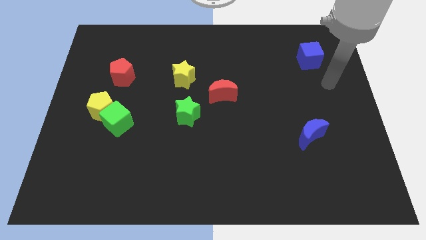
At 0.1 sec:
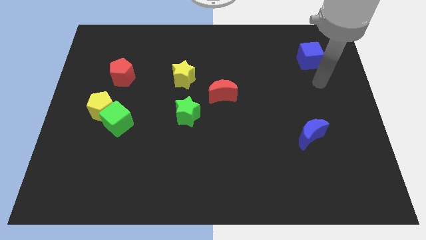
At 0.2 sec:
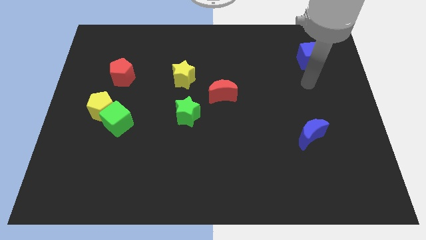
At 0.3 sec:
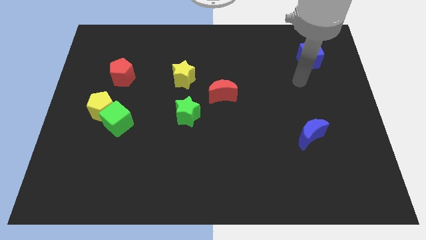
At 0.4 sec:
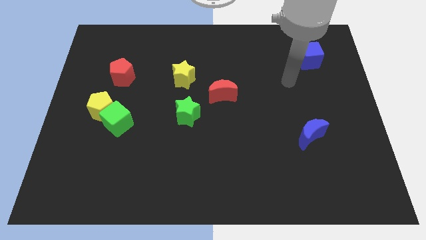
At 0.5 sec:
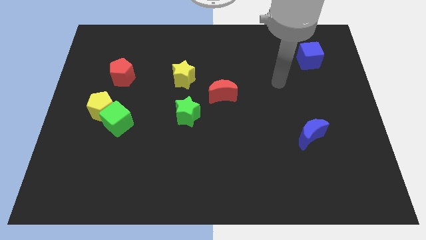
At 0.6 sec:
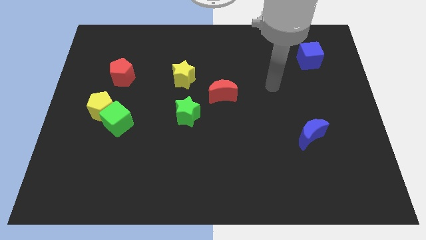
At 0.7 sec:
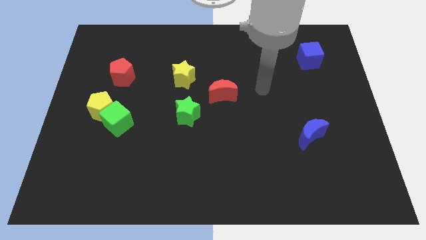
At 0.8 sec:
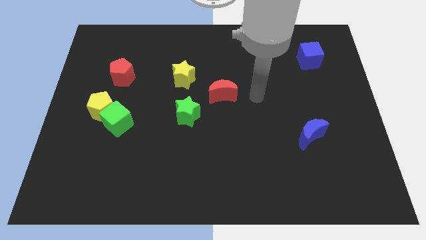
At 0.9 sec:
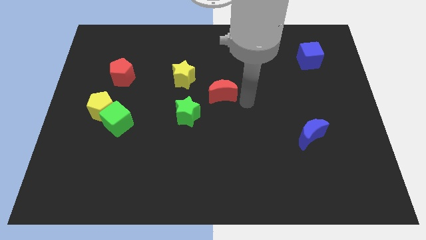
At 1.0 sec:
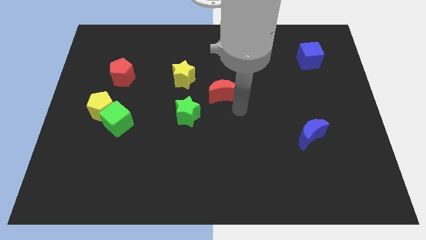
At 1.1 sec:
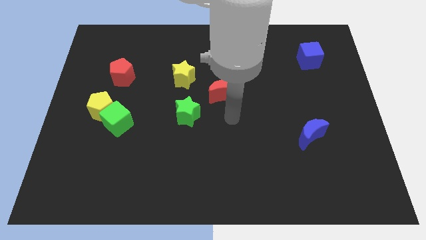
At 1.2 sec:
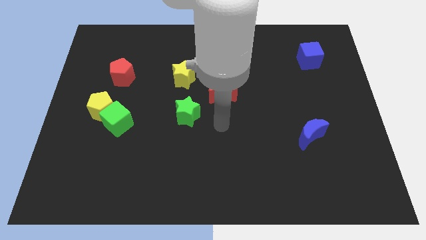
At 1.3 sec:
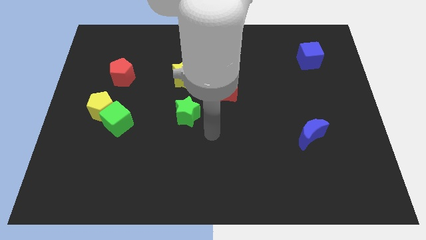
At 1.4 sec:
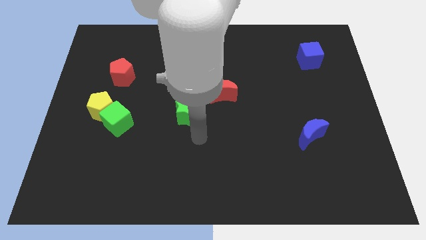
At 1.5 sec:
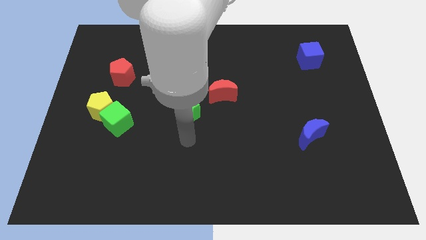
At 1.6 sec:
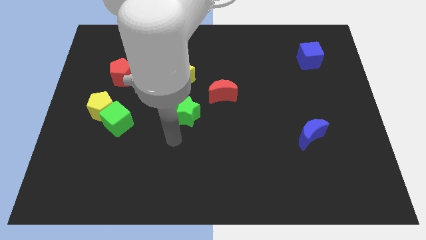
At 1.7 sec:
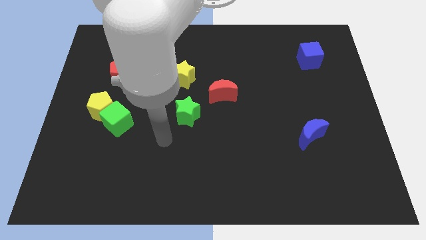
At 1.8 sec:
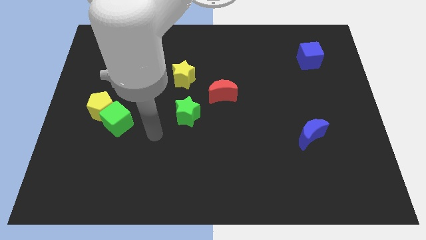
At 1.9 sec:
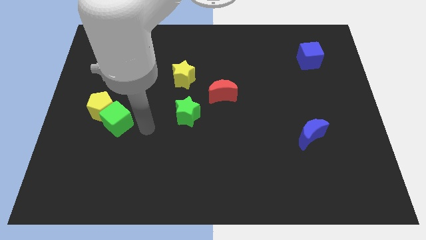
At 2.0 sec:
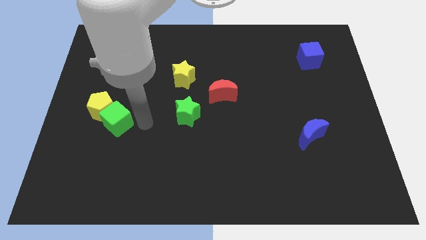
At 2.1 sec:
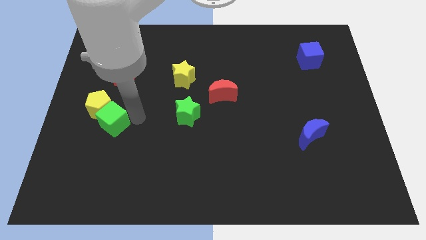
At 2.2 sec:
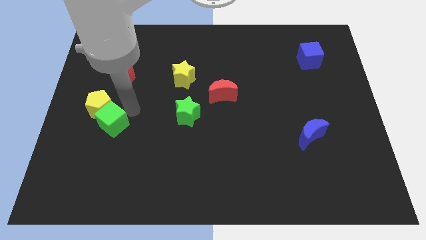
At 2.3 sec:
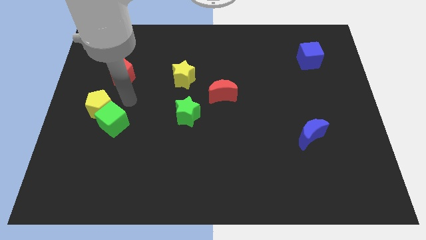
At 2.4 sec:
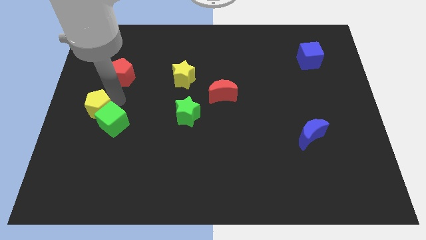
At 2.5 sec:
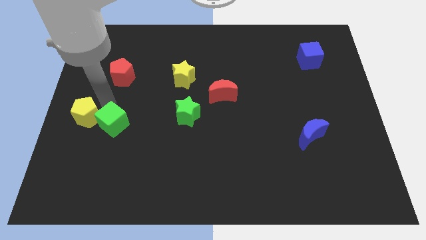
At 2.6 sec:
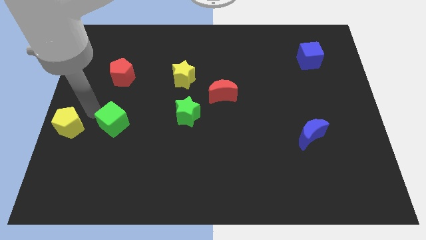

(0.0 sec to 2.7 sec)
pull the green cube apart from the yellow pentagon

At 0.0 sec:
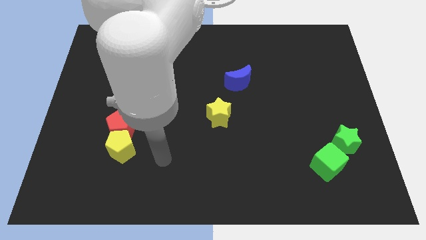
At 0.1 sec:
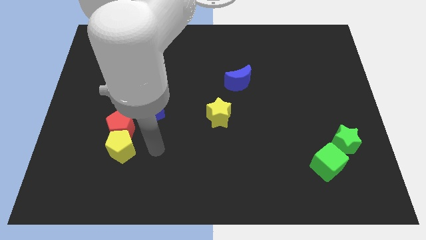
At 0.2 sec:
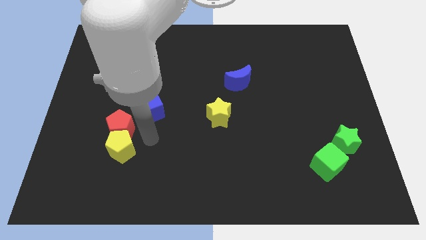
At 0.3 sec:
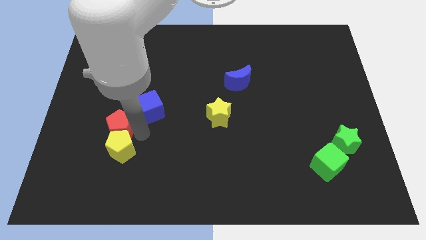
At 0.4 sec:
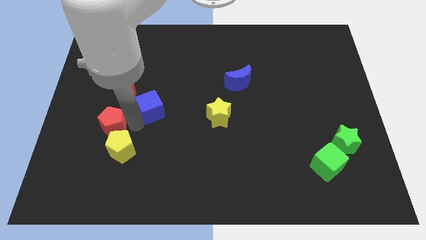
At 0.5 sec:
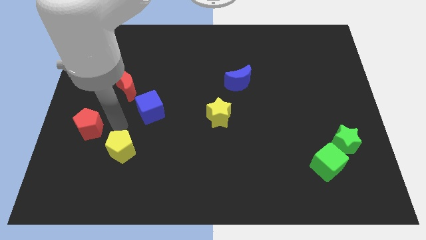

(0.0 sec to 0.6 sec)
separate the yellow pentagon from the red pentagon

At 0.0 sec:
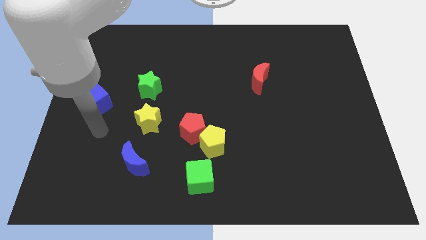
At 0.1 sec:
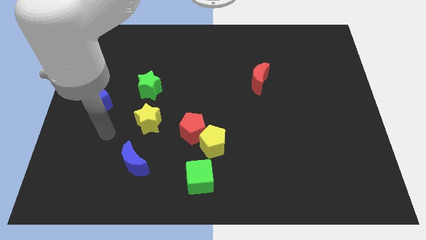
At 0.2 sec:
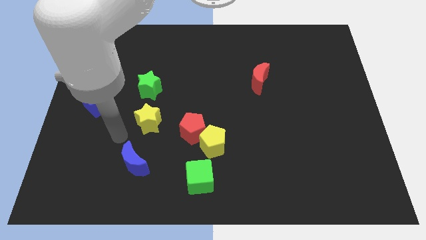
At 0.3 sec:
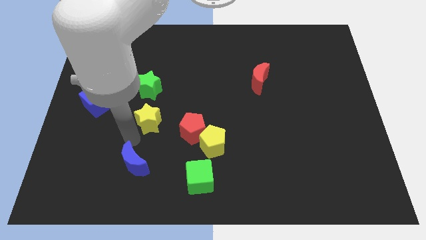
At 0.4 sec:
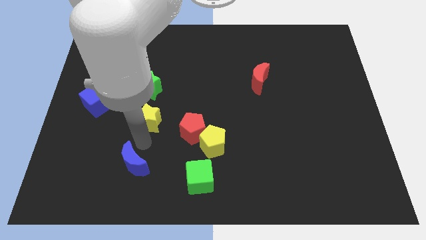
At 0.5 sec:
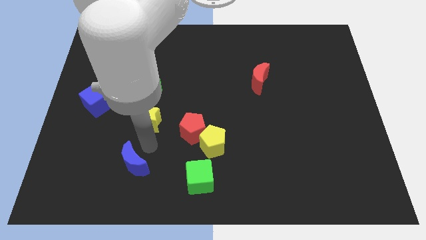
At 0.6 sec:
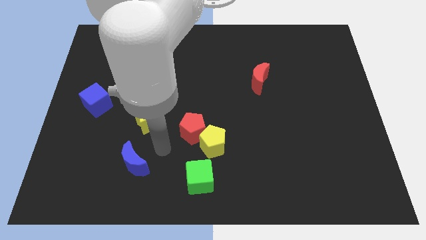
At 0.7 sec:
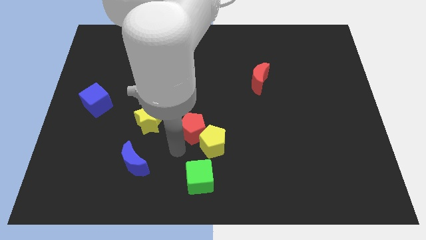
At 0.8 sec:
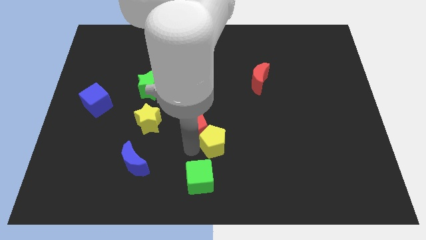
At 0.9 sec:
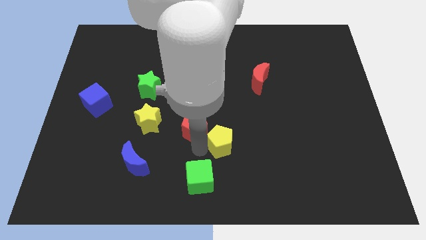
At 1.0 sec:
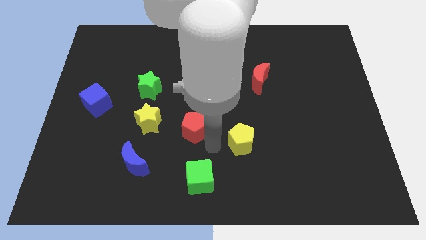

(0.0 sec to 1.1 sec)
separate the red pentagon from the yellow pentagon

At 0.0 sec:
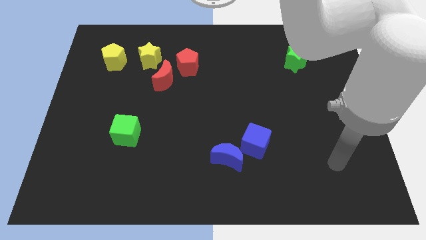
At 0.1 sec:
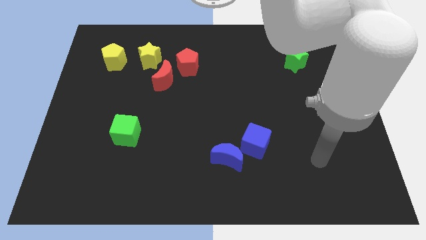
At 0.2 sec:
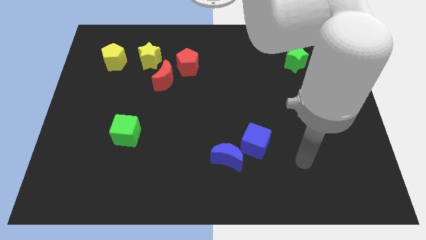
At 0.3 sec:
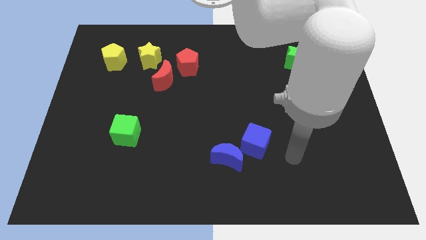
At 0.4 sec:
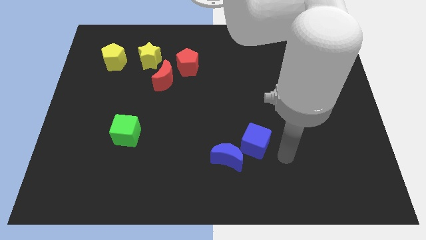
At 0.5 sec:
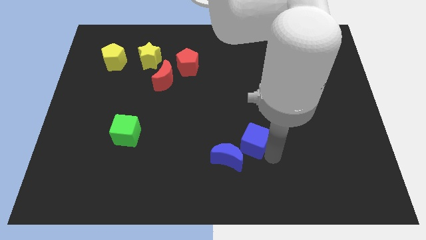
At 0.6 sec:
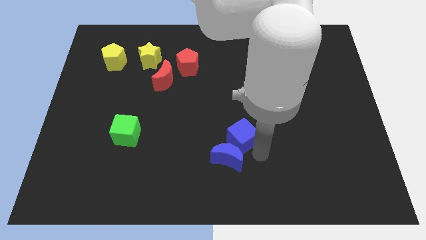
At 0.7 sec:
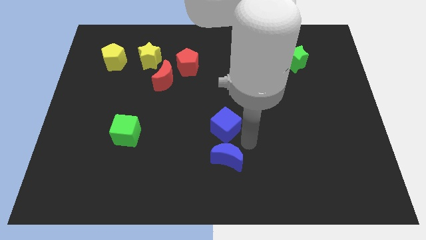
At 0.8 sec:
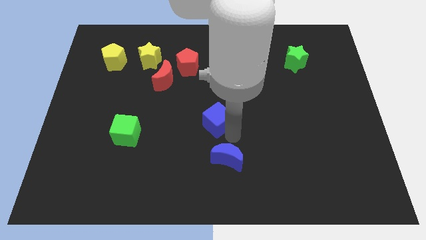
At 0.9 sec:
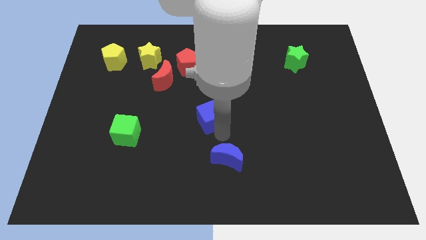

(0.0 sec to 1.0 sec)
separate the blue moon from the blue cube

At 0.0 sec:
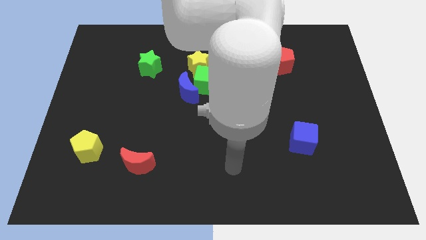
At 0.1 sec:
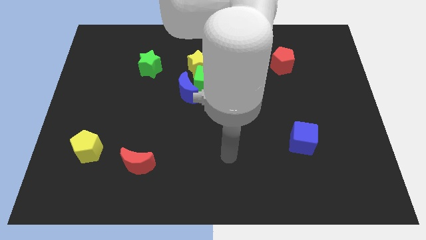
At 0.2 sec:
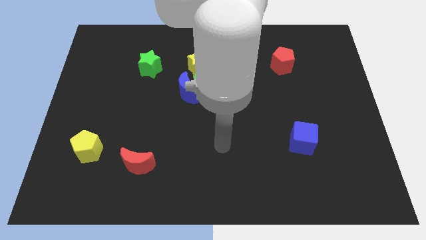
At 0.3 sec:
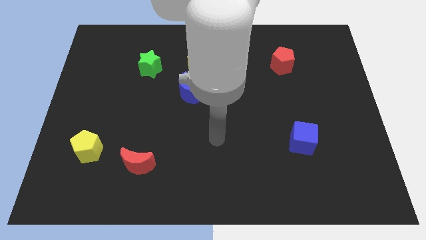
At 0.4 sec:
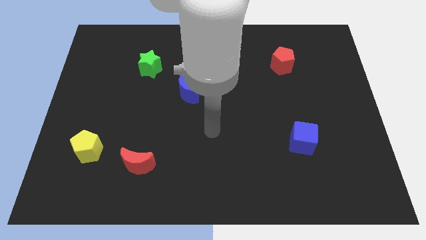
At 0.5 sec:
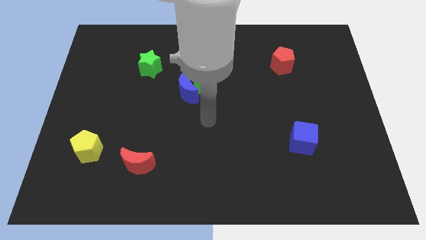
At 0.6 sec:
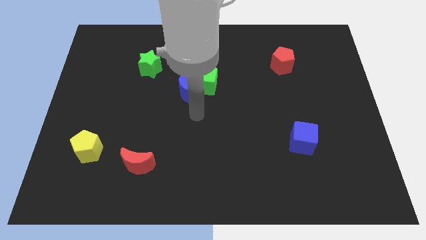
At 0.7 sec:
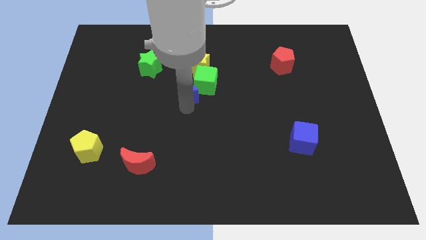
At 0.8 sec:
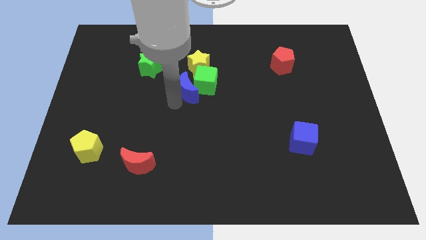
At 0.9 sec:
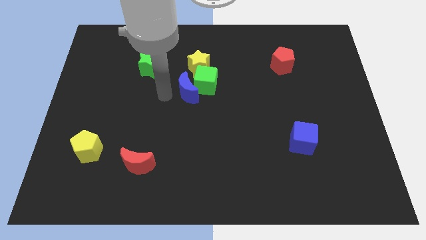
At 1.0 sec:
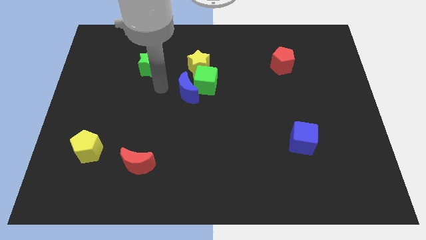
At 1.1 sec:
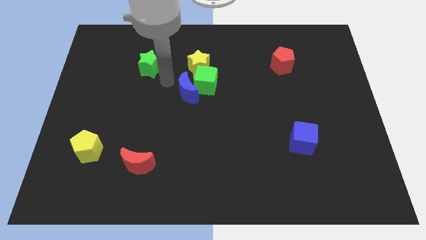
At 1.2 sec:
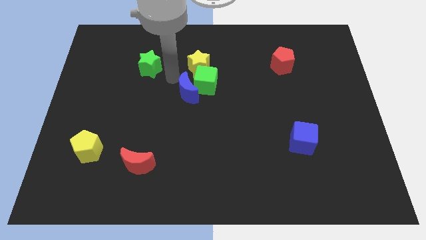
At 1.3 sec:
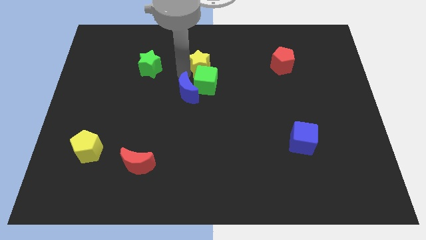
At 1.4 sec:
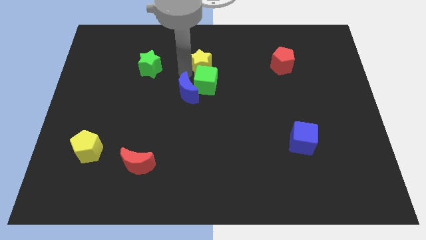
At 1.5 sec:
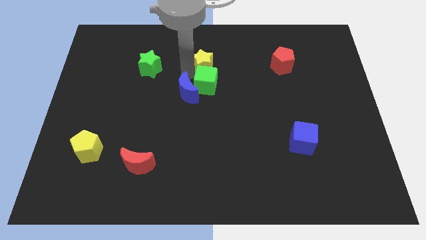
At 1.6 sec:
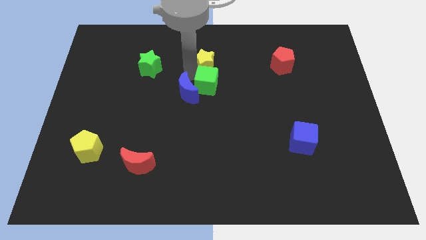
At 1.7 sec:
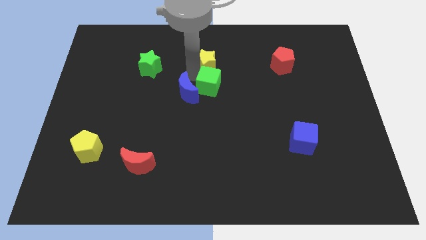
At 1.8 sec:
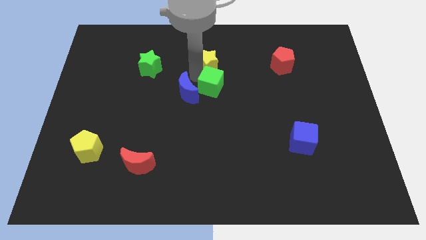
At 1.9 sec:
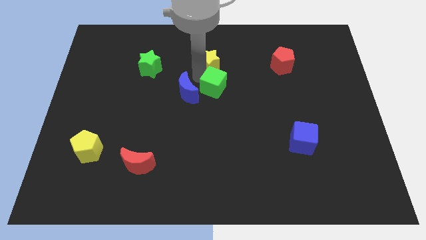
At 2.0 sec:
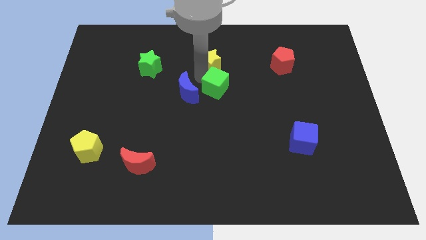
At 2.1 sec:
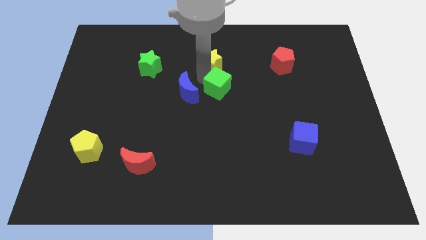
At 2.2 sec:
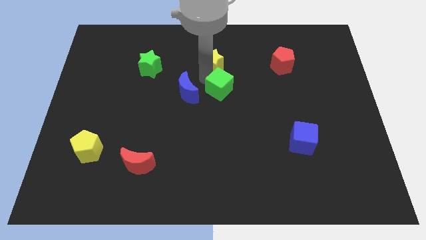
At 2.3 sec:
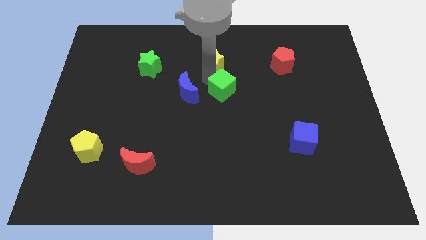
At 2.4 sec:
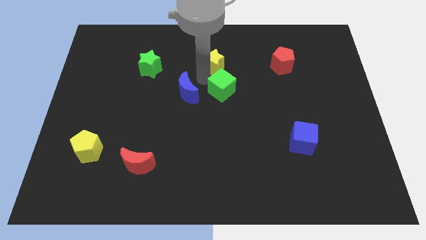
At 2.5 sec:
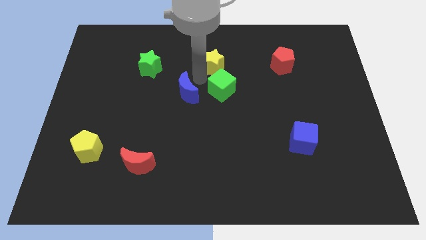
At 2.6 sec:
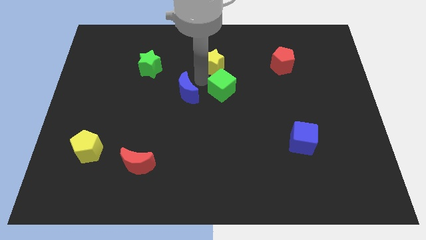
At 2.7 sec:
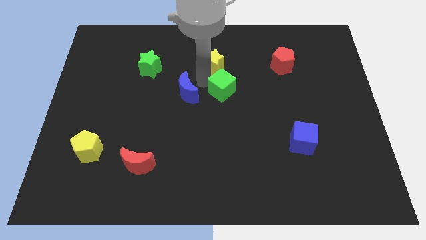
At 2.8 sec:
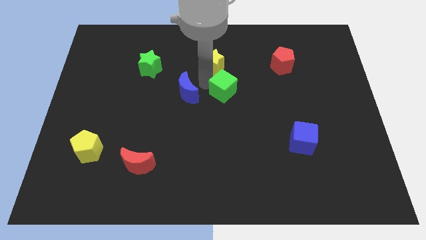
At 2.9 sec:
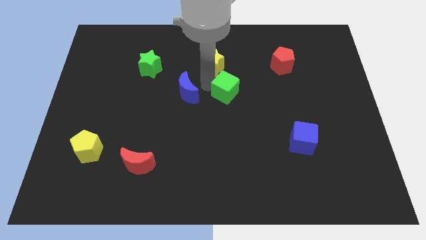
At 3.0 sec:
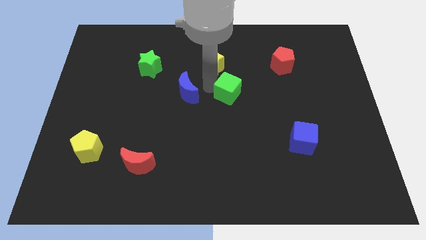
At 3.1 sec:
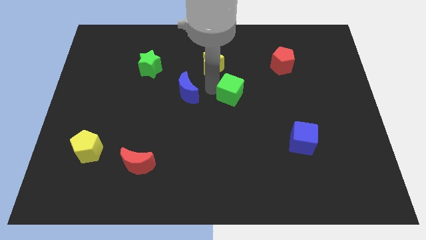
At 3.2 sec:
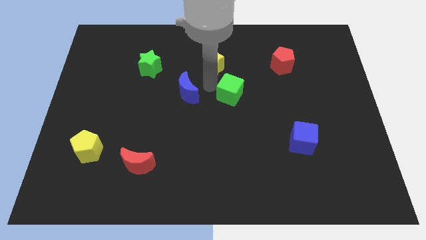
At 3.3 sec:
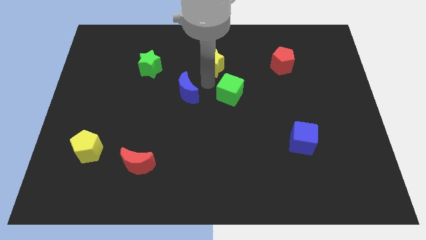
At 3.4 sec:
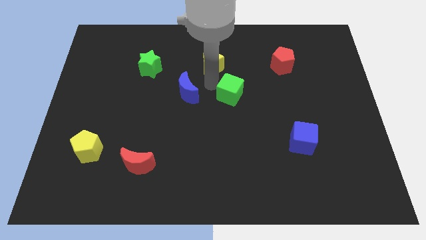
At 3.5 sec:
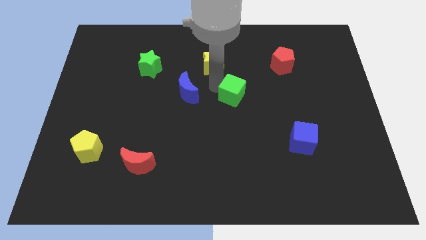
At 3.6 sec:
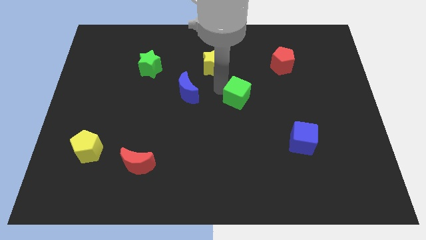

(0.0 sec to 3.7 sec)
move the green cube away from the blue moon and yellow star

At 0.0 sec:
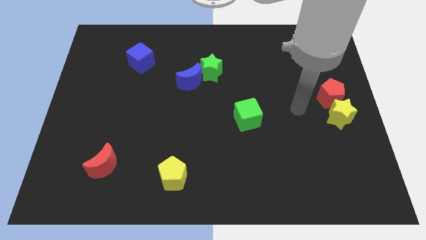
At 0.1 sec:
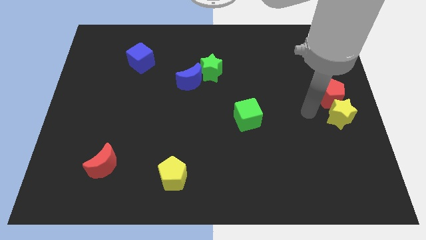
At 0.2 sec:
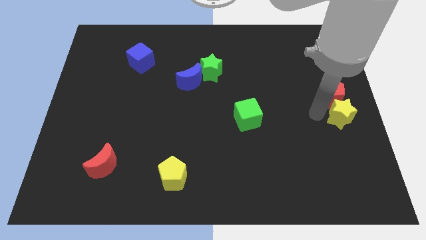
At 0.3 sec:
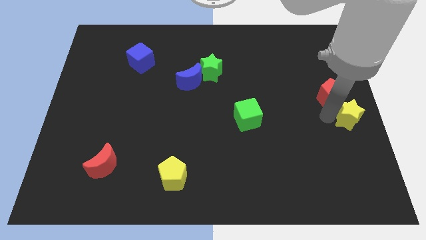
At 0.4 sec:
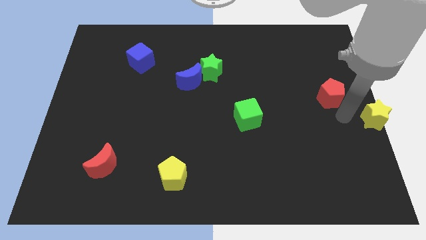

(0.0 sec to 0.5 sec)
separate the red pentagon from the yellow star
